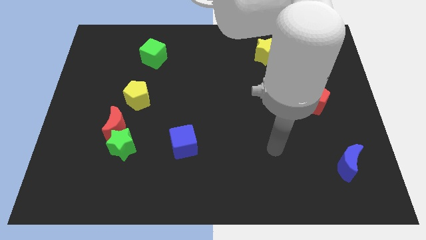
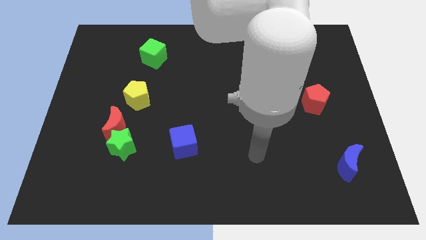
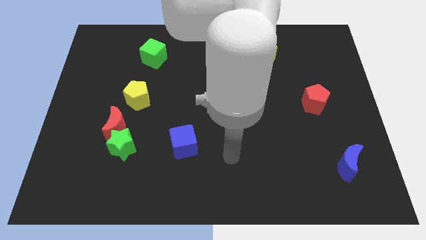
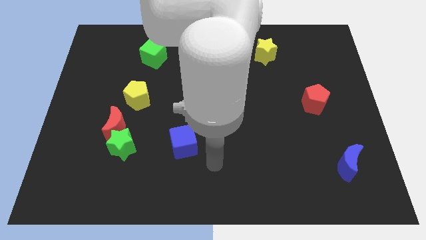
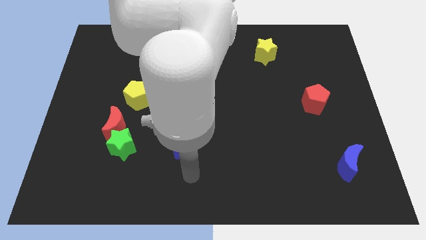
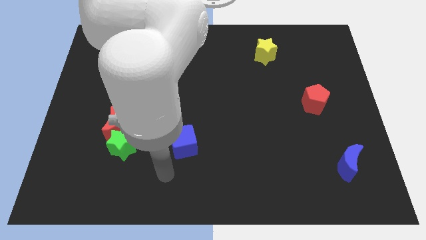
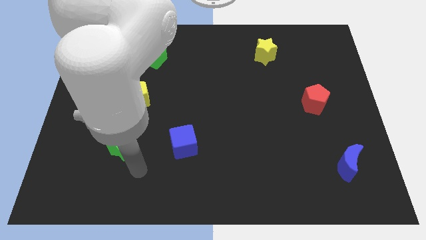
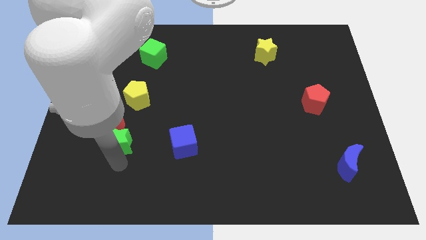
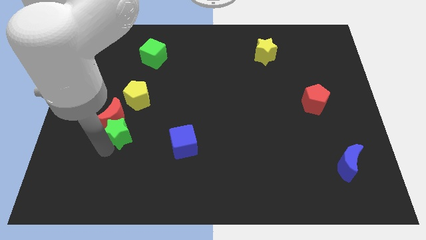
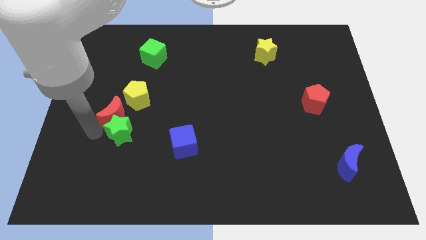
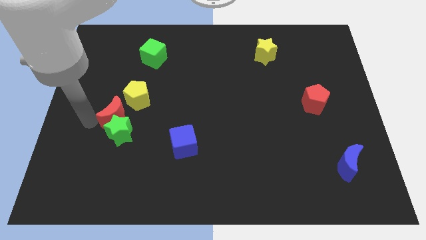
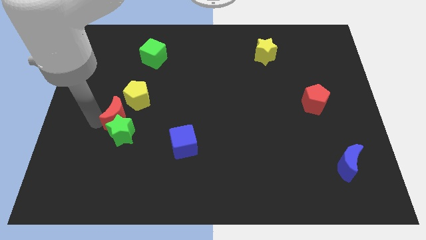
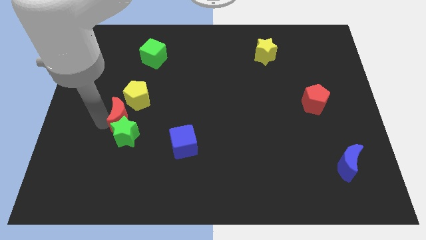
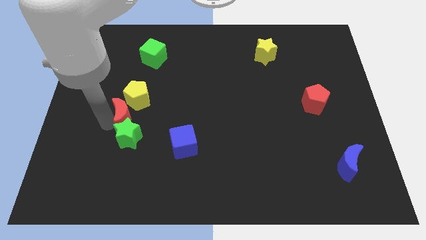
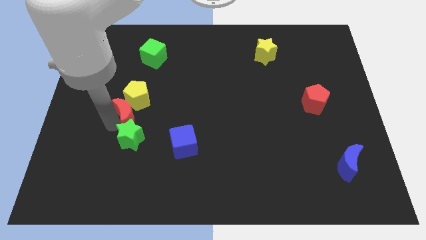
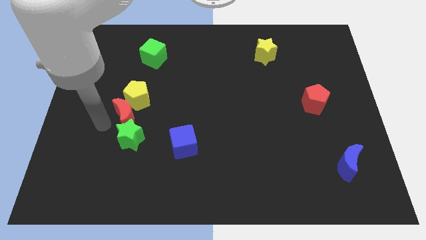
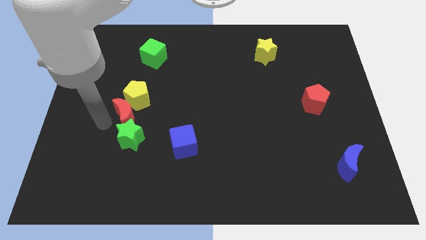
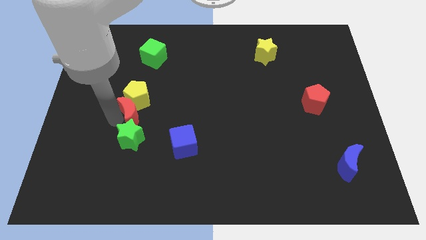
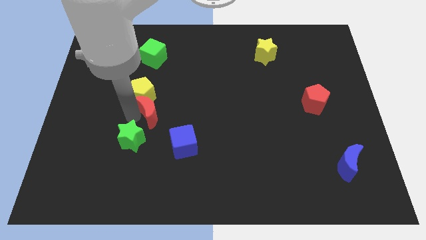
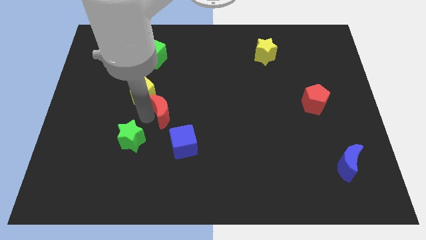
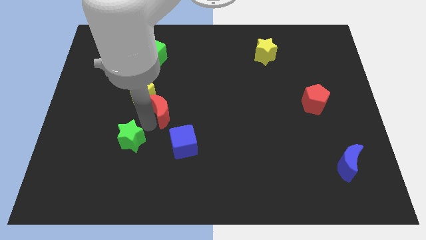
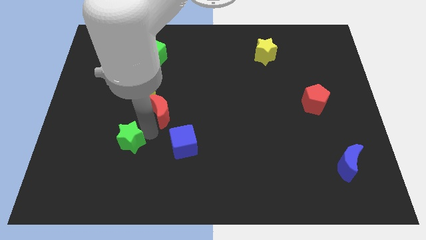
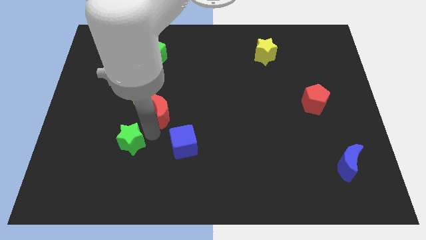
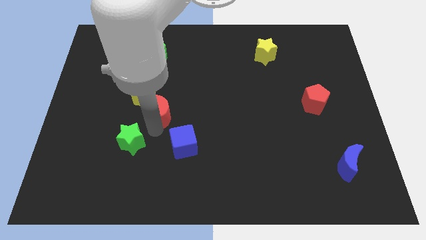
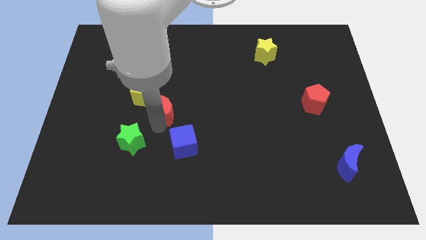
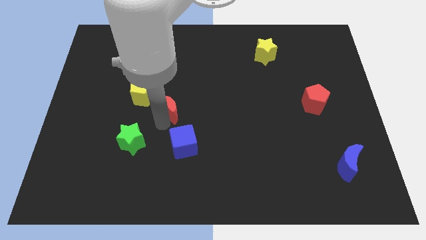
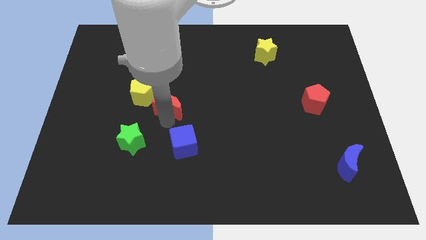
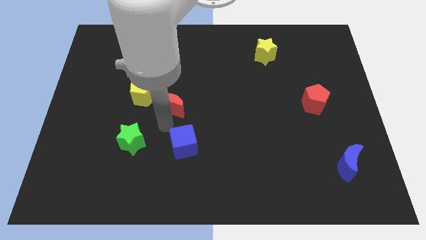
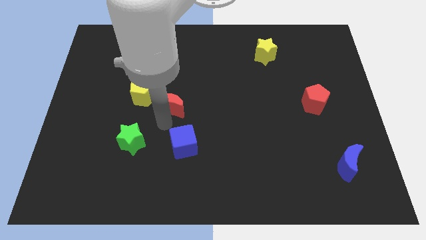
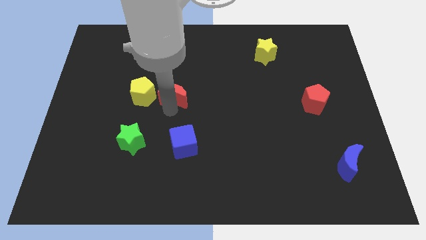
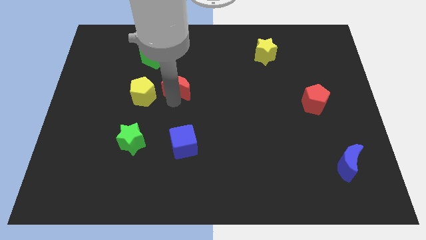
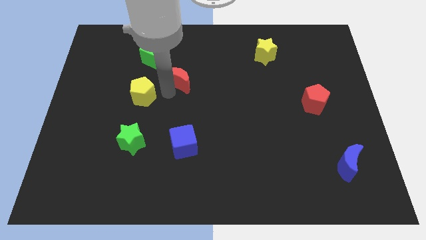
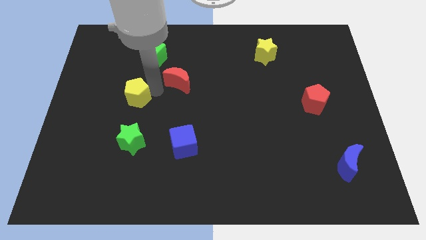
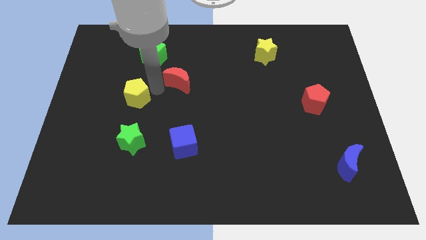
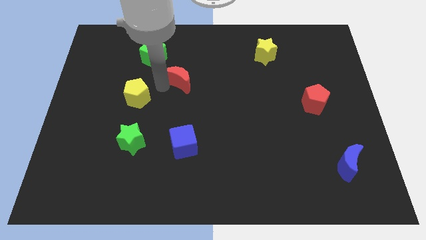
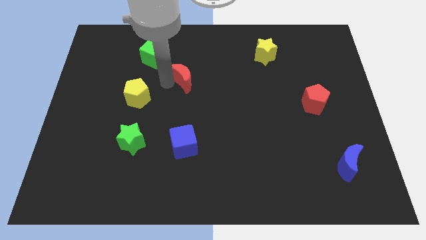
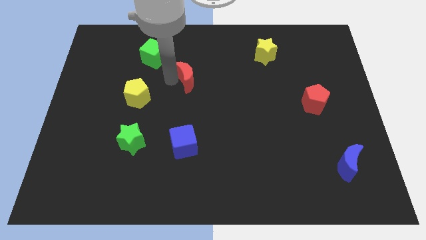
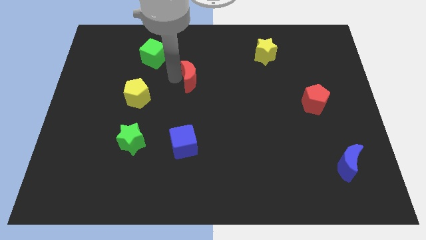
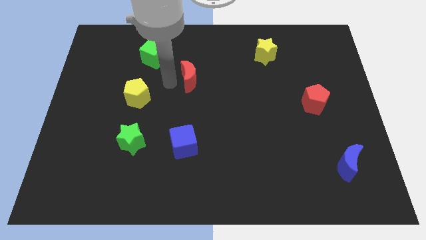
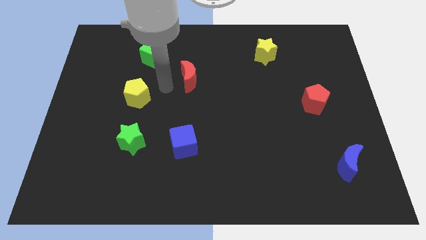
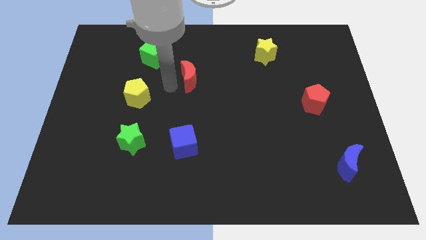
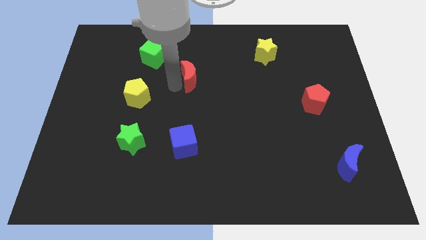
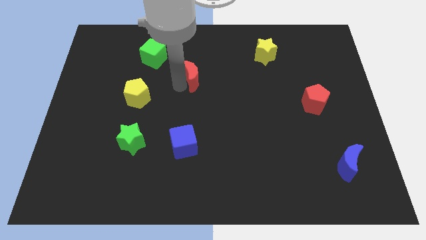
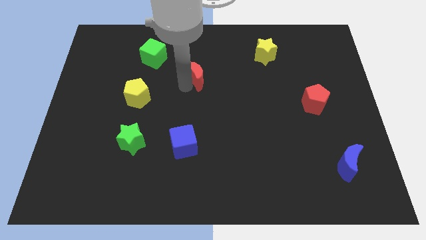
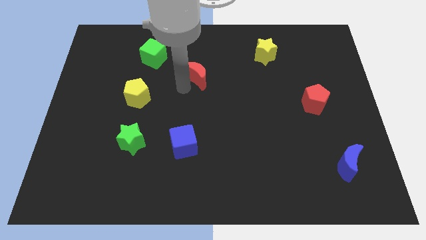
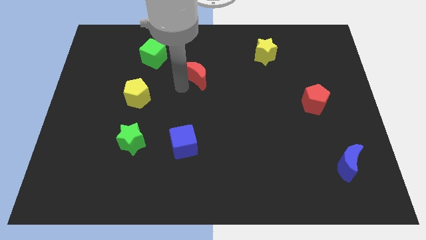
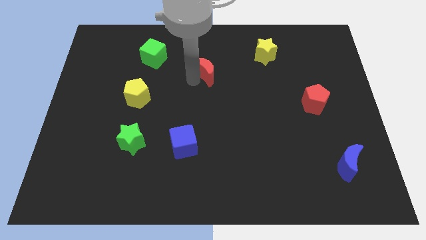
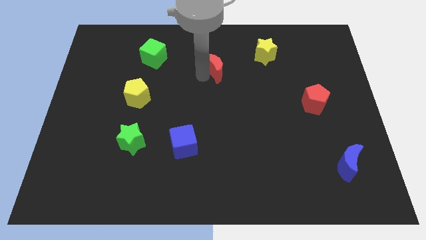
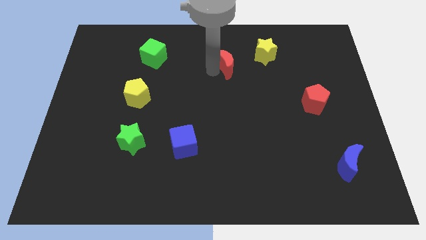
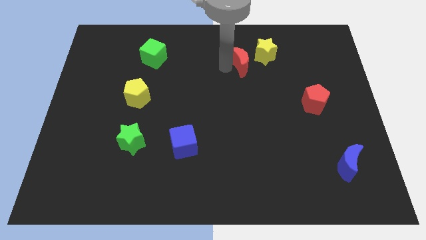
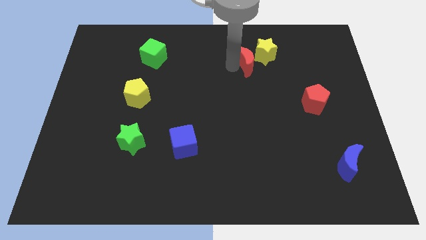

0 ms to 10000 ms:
move the red moon towards the yellow star

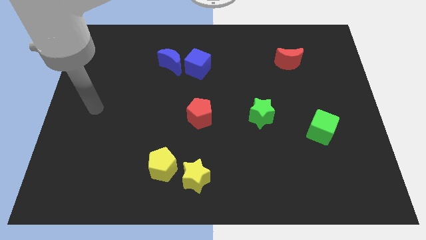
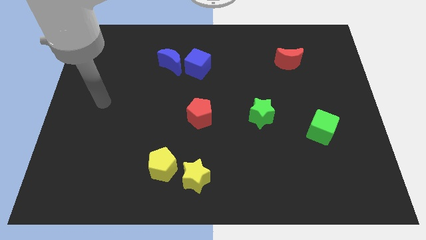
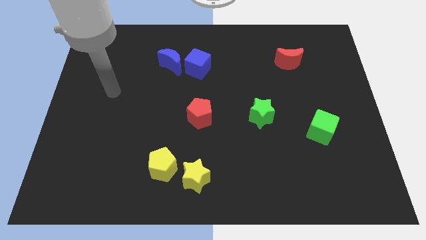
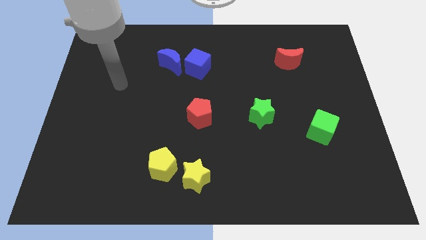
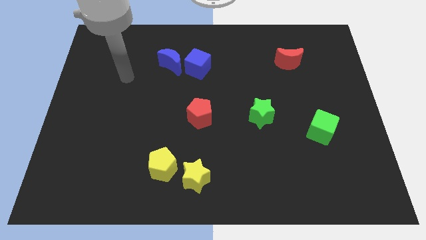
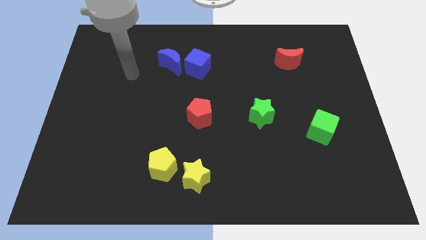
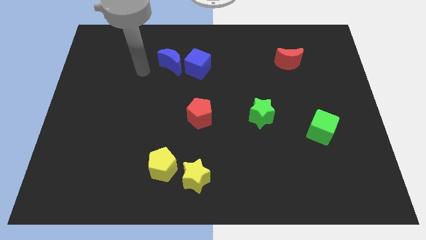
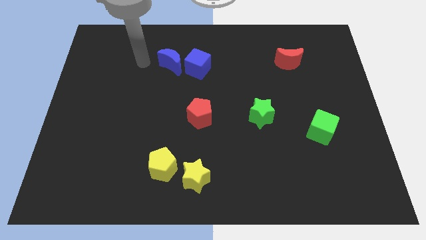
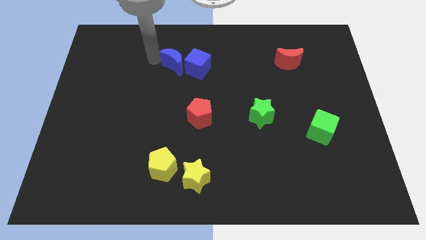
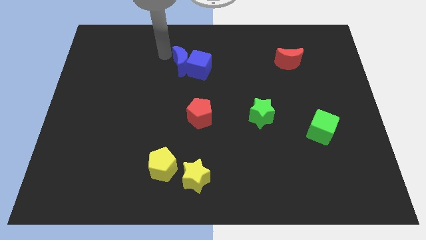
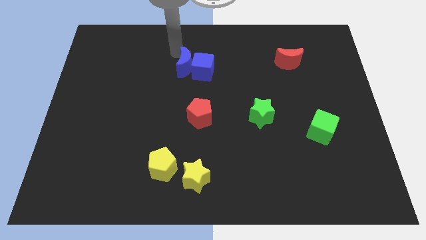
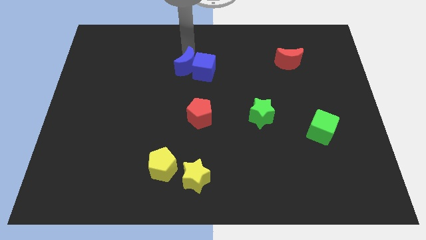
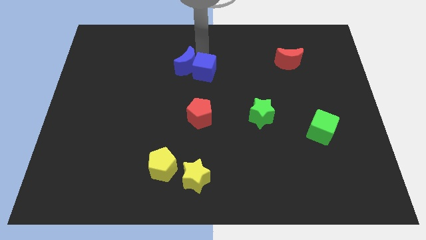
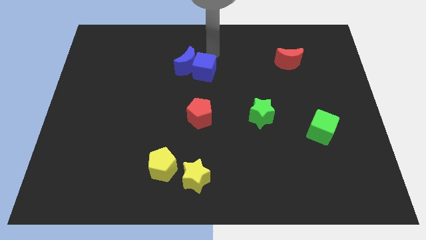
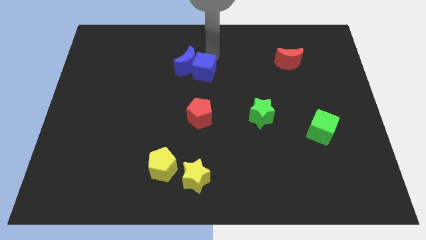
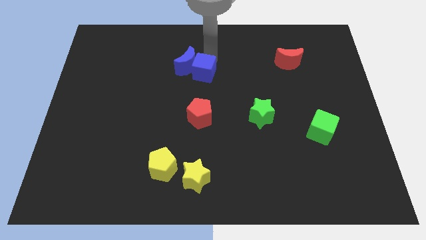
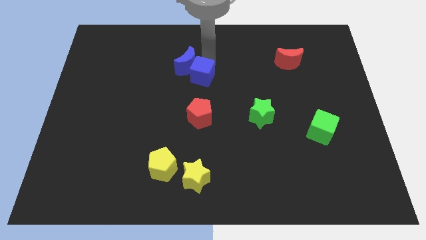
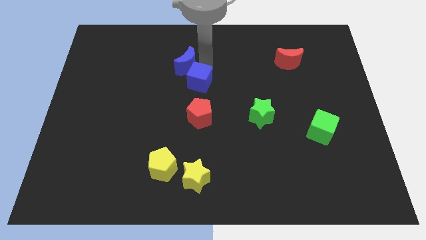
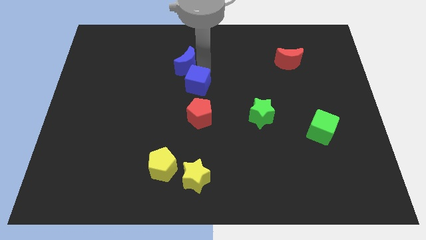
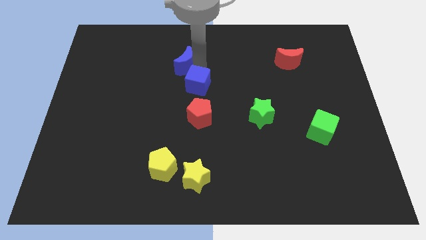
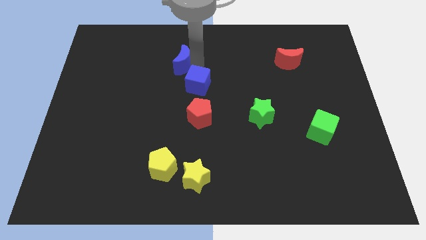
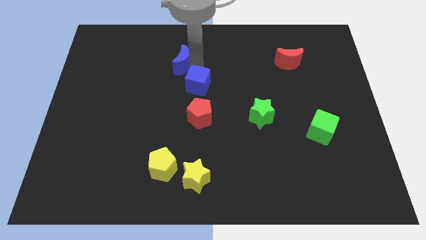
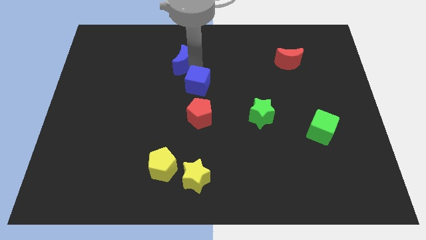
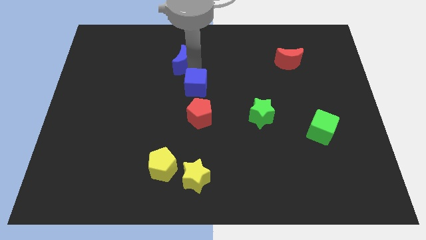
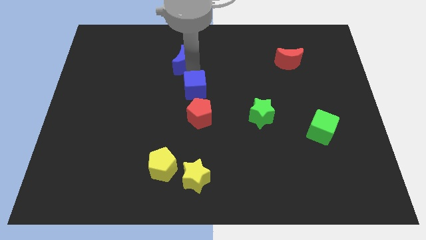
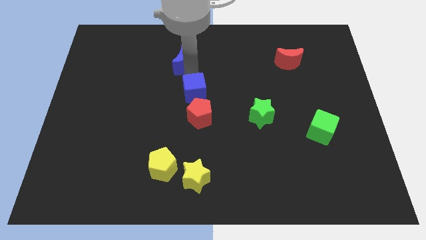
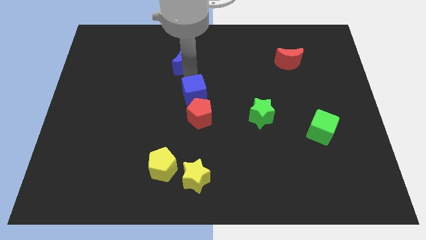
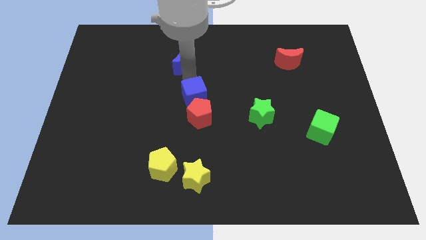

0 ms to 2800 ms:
push the blue cube towards the red pentagon
